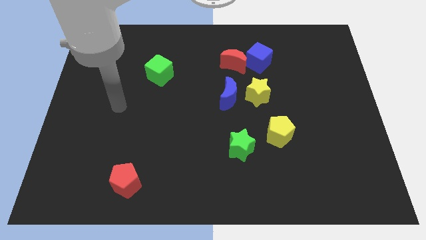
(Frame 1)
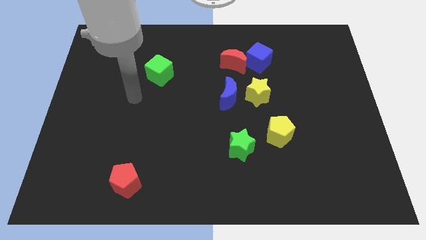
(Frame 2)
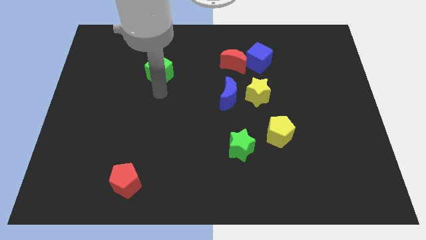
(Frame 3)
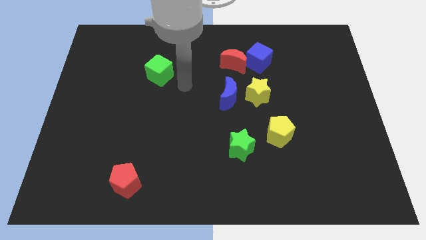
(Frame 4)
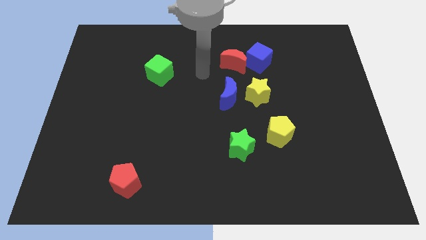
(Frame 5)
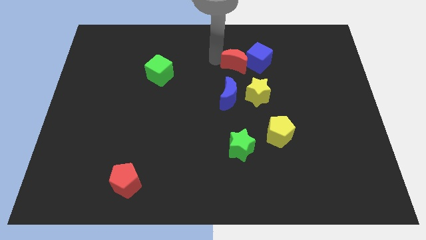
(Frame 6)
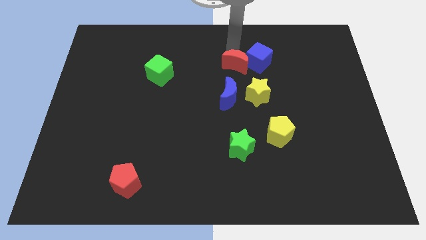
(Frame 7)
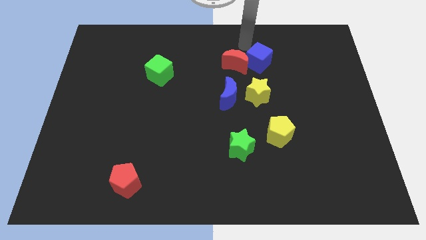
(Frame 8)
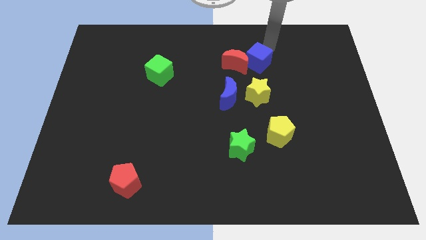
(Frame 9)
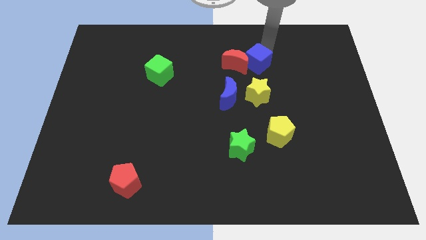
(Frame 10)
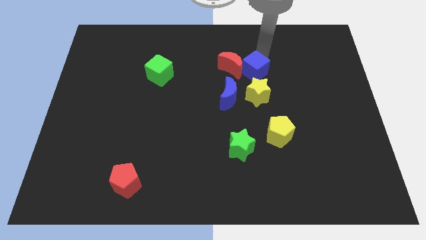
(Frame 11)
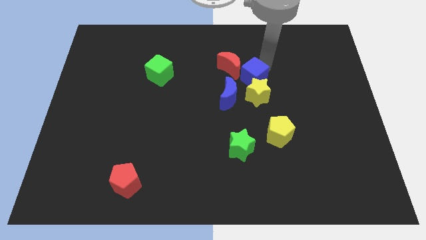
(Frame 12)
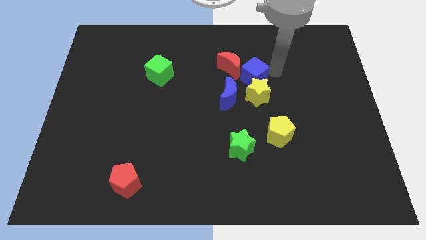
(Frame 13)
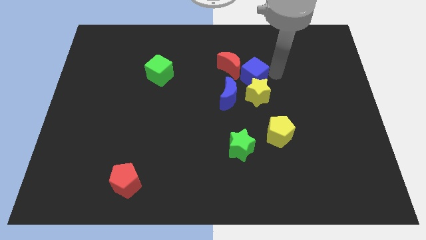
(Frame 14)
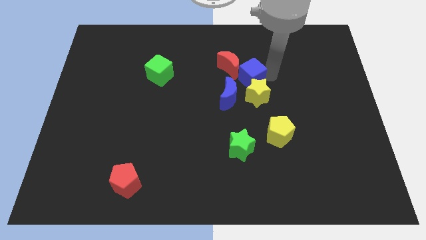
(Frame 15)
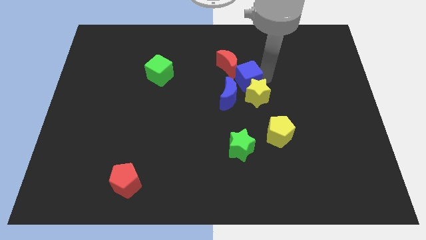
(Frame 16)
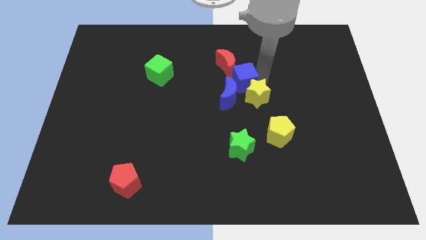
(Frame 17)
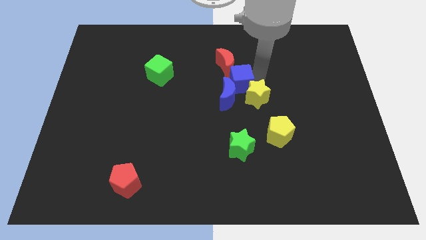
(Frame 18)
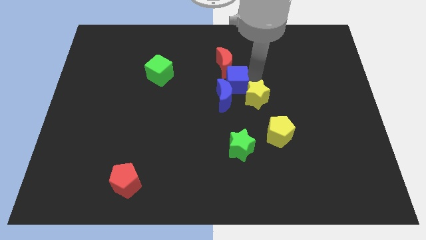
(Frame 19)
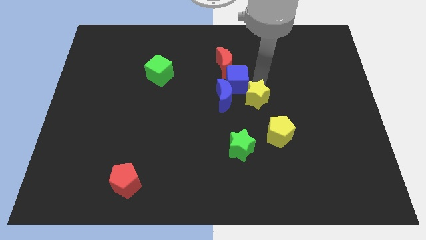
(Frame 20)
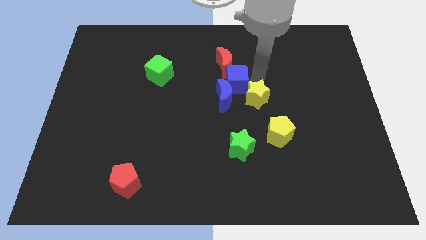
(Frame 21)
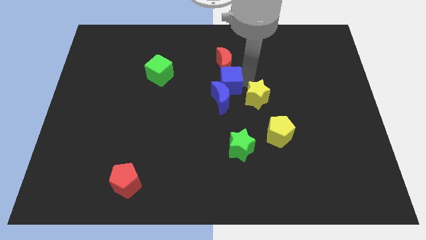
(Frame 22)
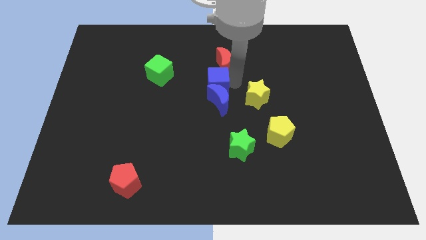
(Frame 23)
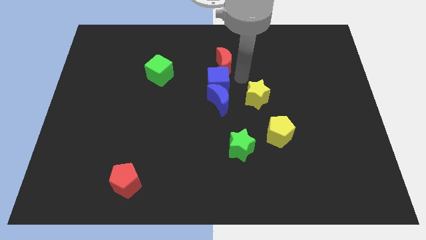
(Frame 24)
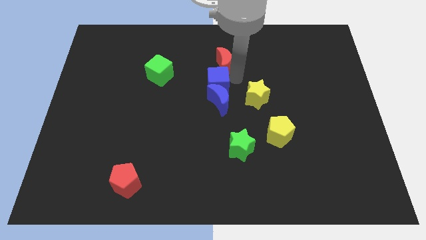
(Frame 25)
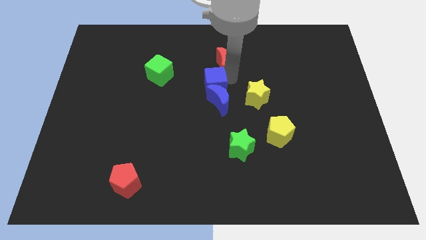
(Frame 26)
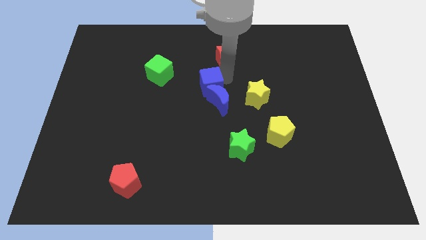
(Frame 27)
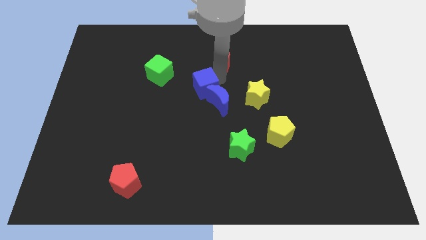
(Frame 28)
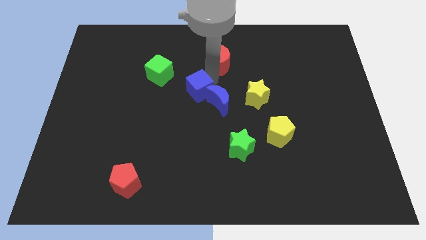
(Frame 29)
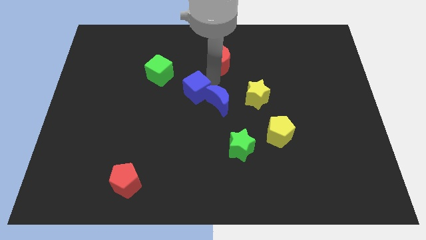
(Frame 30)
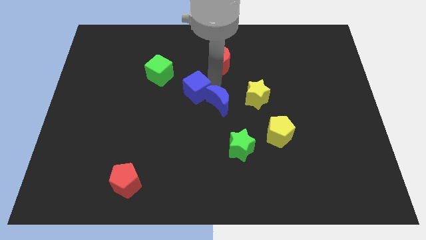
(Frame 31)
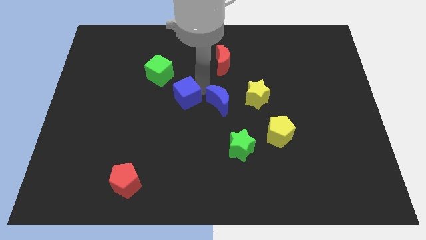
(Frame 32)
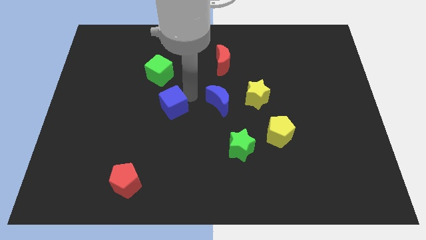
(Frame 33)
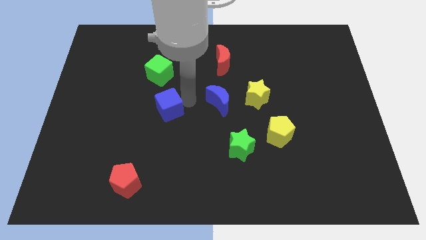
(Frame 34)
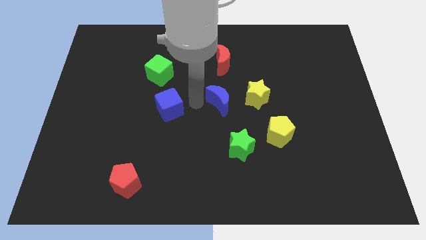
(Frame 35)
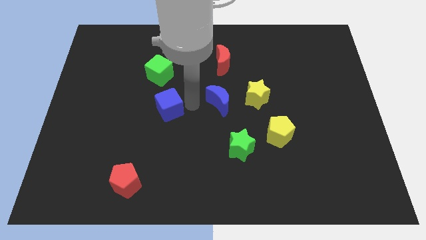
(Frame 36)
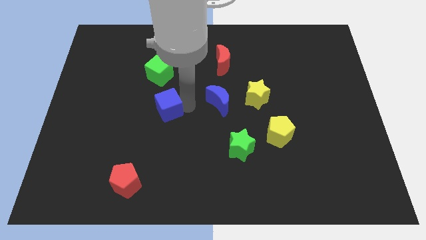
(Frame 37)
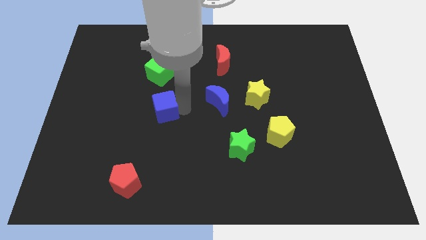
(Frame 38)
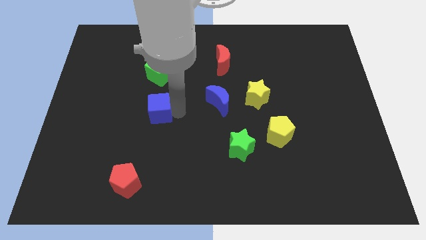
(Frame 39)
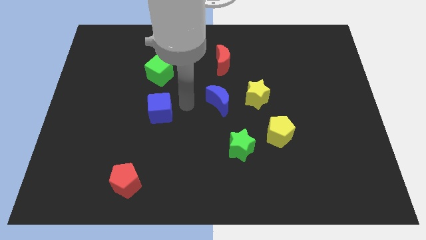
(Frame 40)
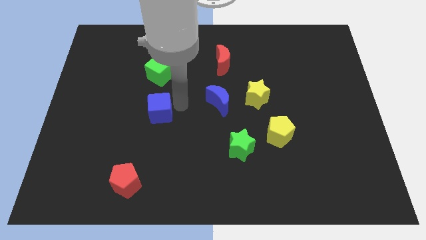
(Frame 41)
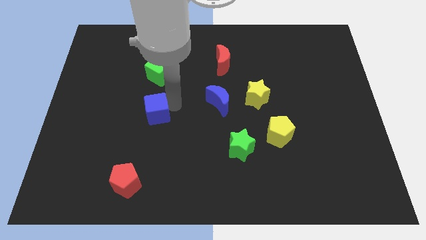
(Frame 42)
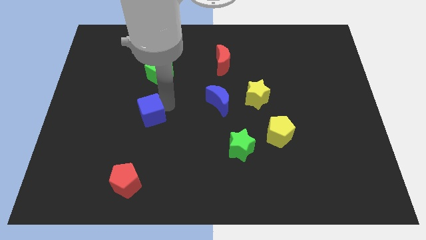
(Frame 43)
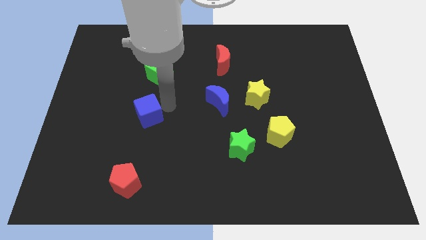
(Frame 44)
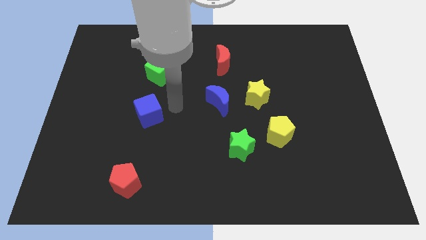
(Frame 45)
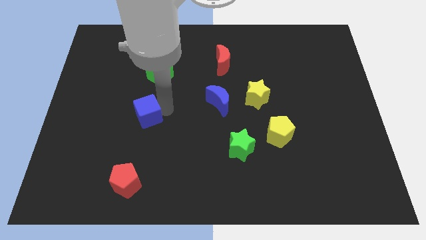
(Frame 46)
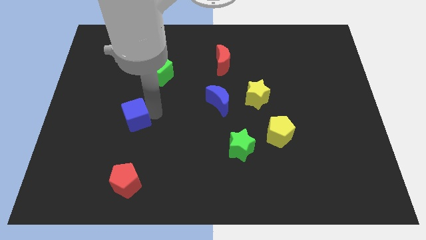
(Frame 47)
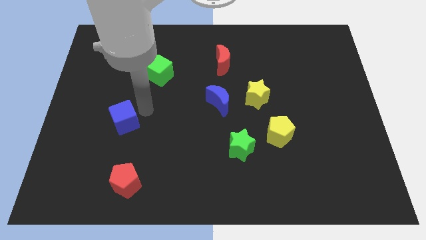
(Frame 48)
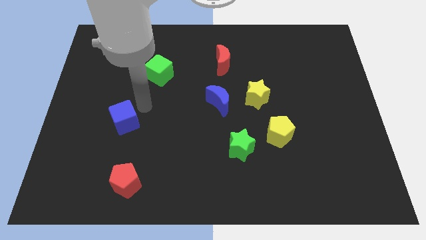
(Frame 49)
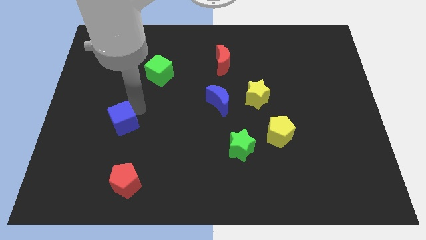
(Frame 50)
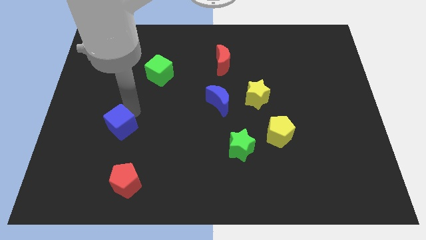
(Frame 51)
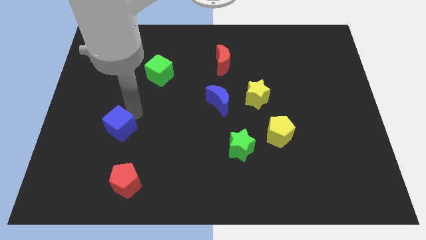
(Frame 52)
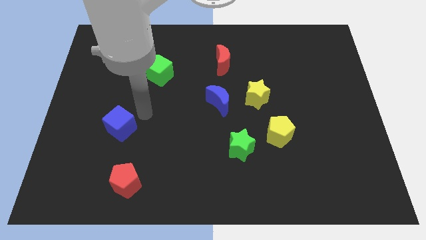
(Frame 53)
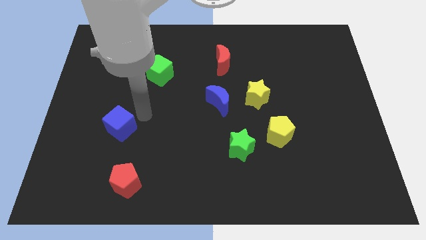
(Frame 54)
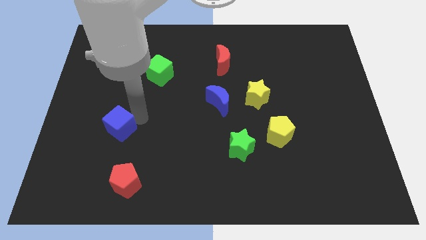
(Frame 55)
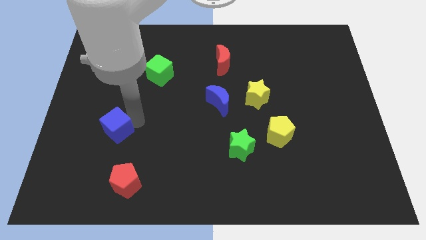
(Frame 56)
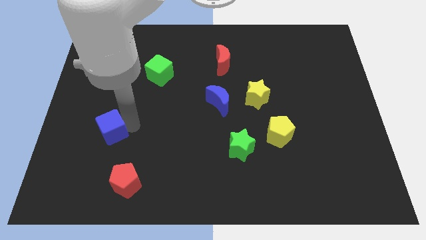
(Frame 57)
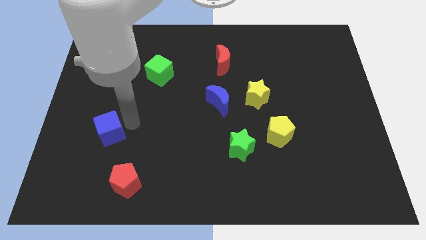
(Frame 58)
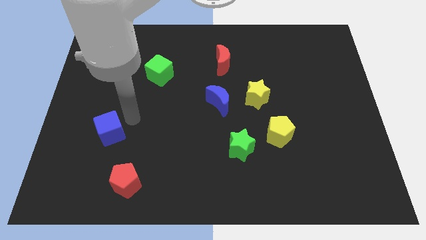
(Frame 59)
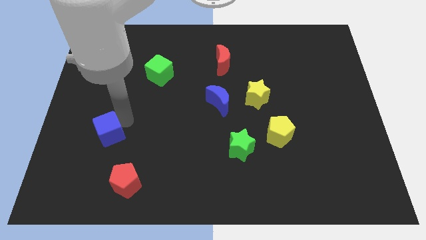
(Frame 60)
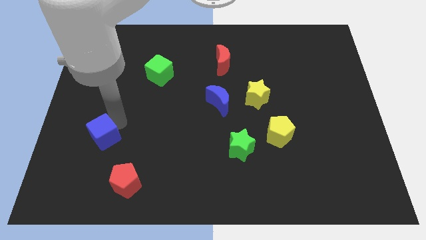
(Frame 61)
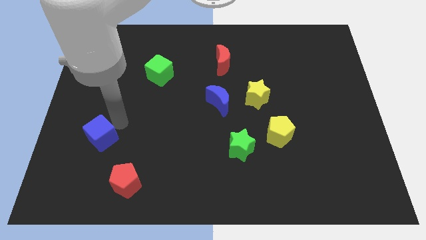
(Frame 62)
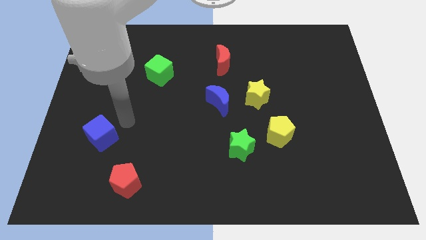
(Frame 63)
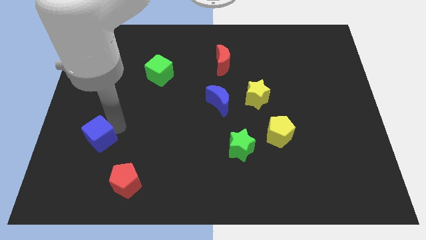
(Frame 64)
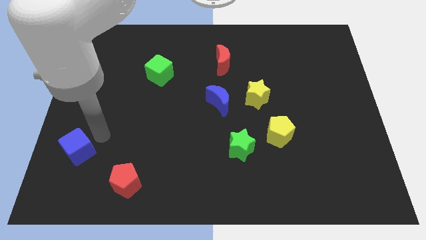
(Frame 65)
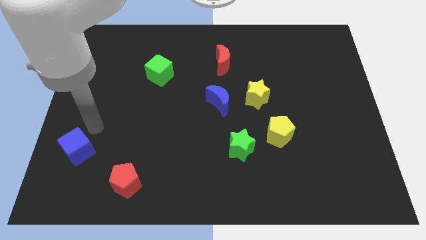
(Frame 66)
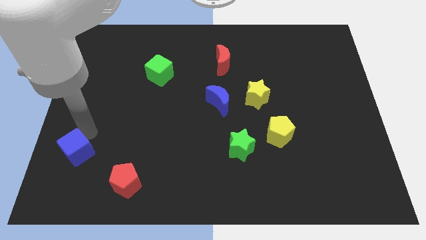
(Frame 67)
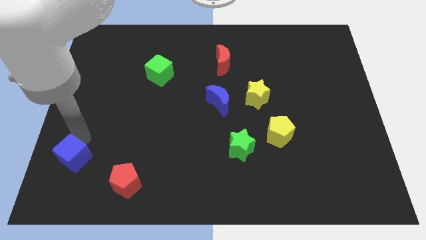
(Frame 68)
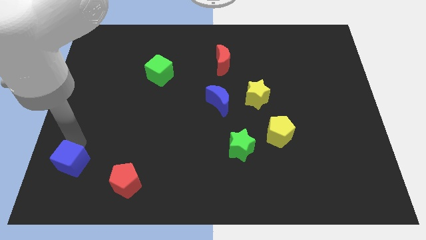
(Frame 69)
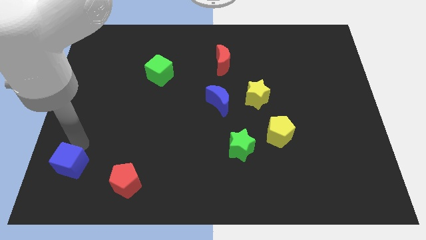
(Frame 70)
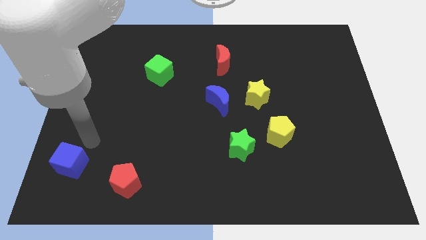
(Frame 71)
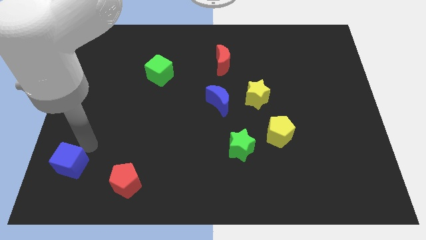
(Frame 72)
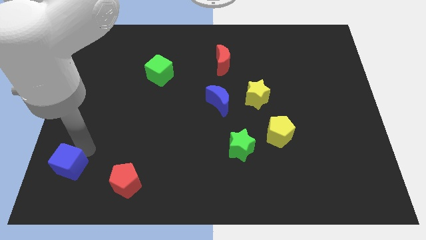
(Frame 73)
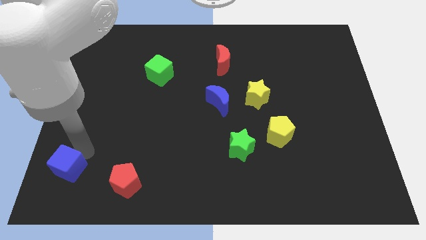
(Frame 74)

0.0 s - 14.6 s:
slide the blue cube to the bottom left

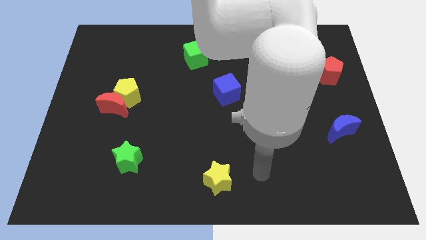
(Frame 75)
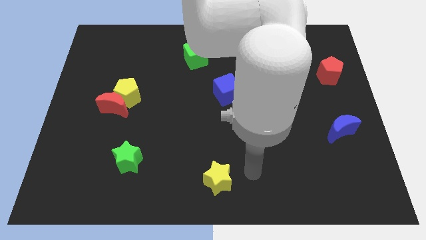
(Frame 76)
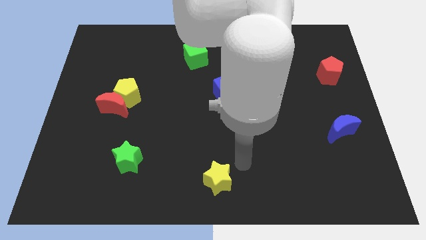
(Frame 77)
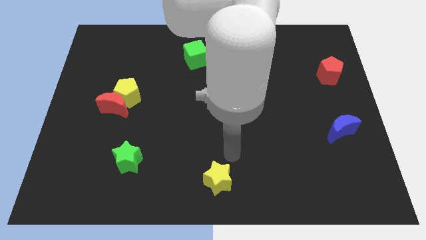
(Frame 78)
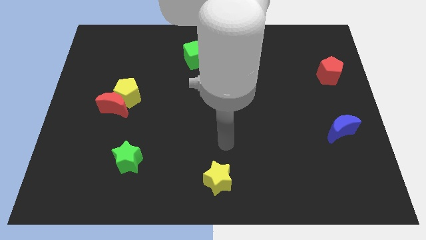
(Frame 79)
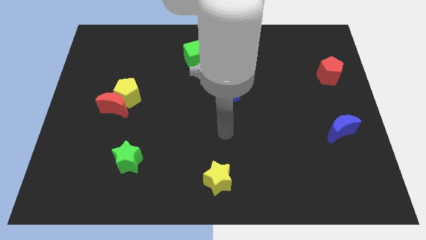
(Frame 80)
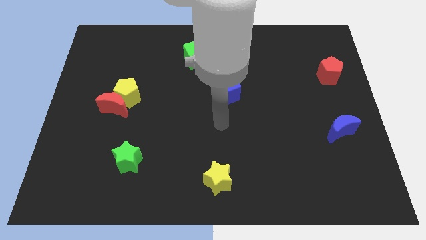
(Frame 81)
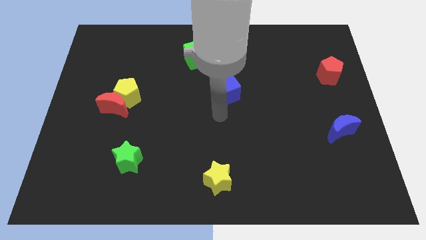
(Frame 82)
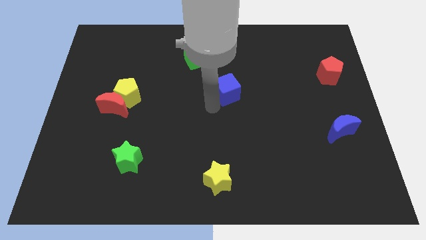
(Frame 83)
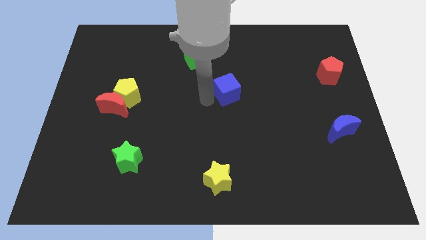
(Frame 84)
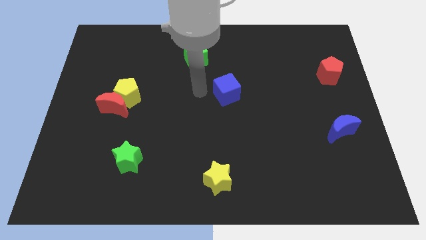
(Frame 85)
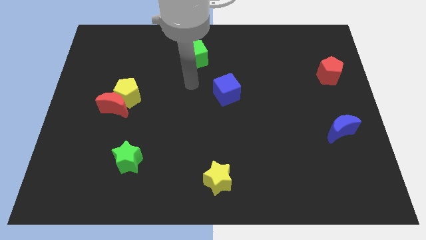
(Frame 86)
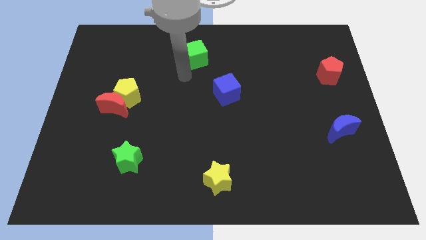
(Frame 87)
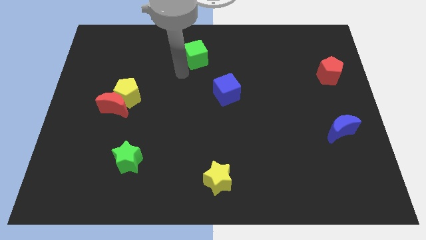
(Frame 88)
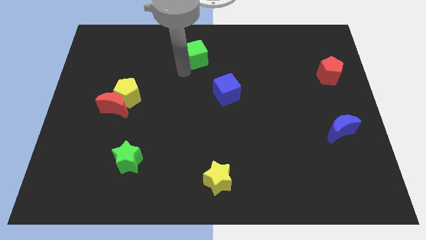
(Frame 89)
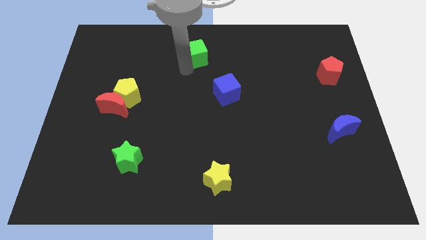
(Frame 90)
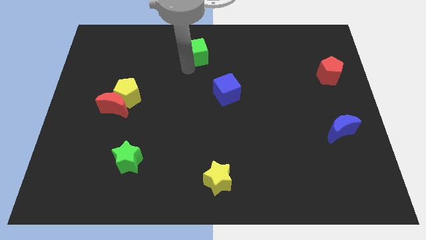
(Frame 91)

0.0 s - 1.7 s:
put the green cube to the top
